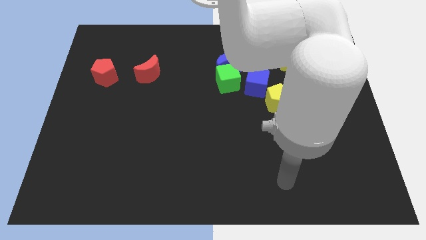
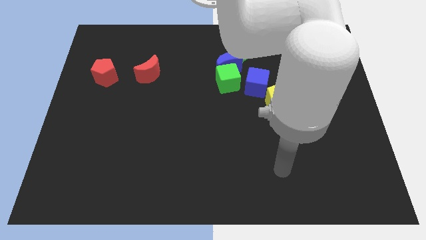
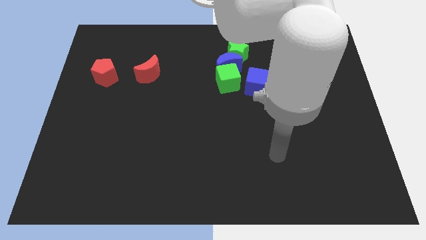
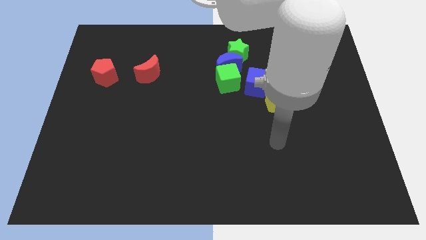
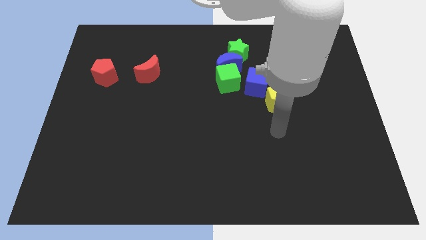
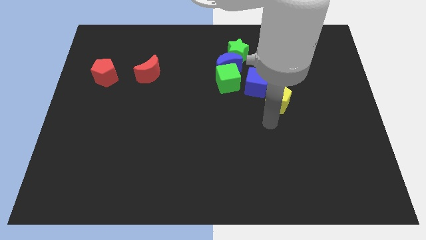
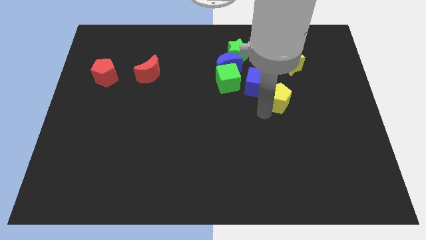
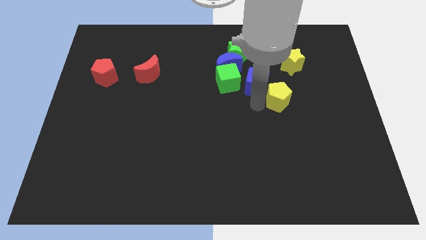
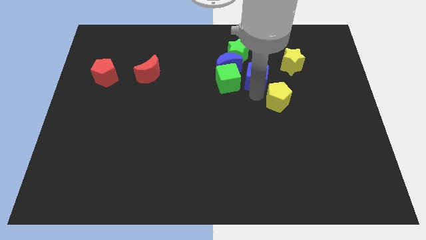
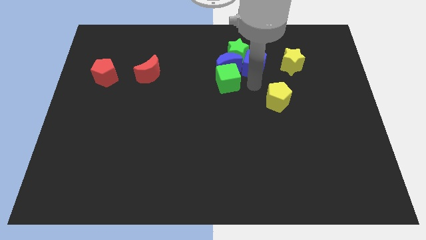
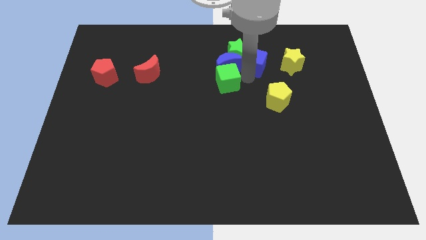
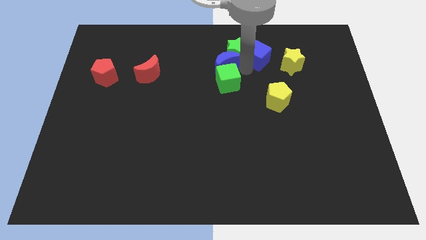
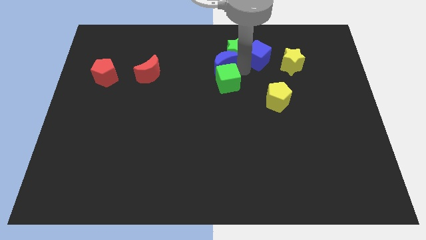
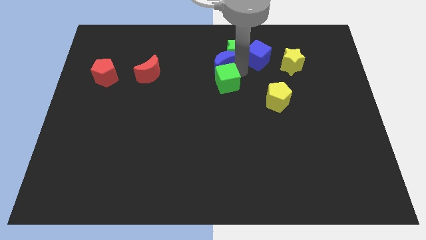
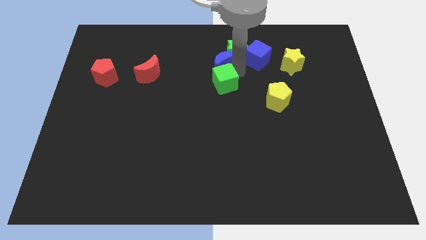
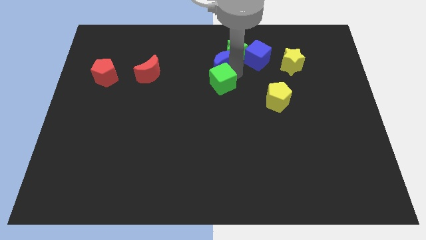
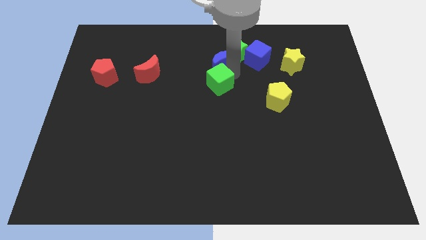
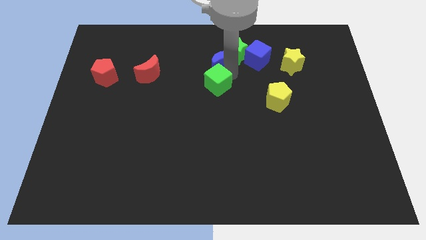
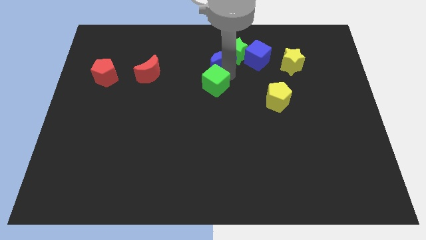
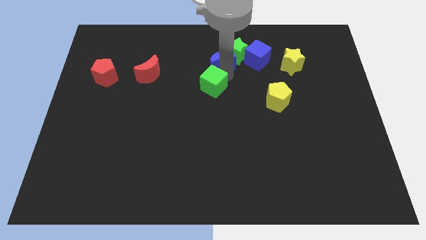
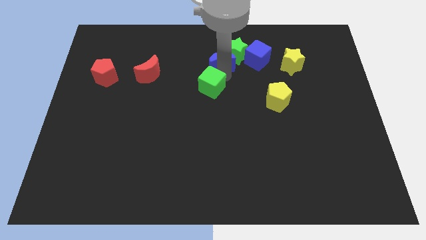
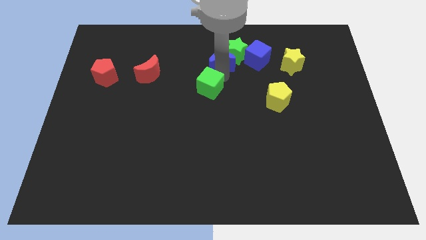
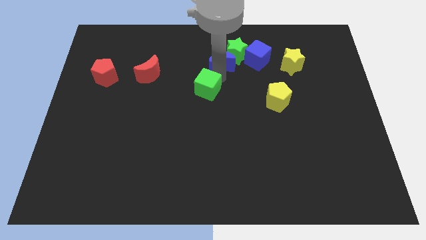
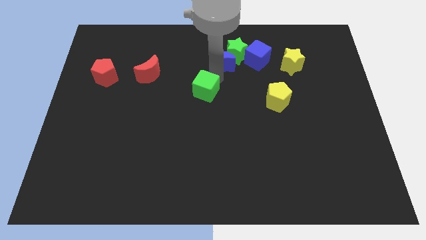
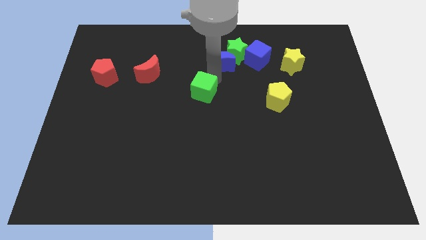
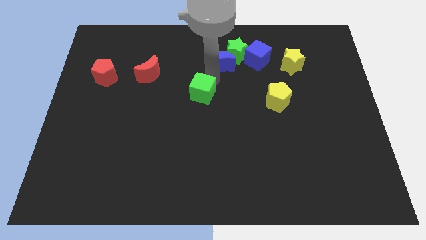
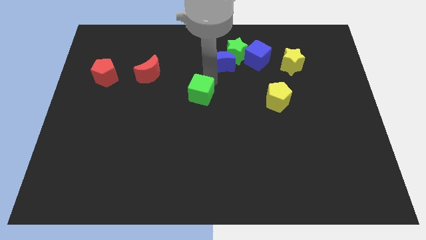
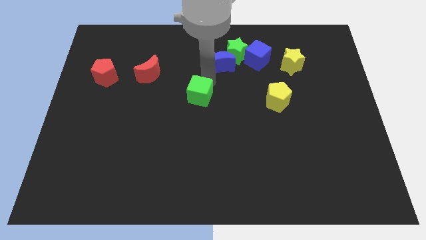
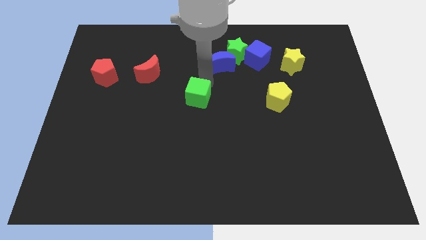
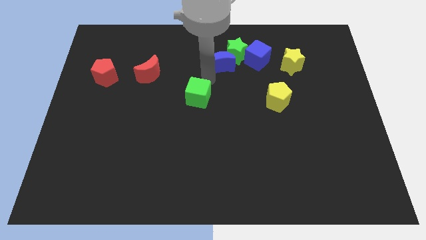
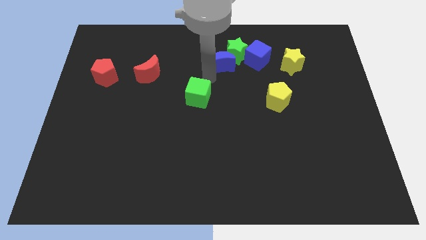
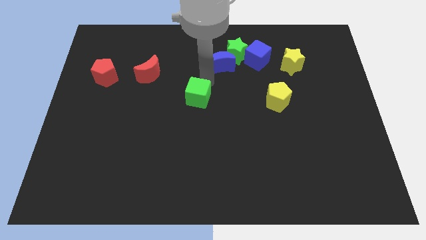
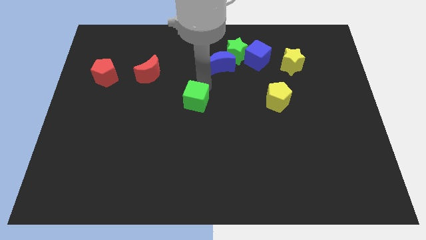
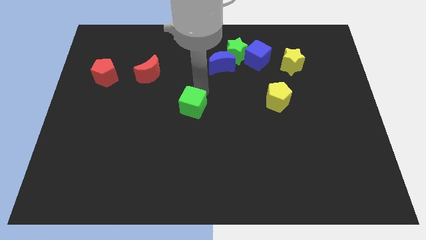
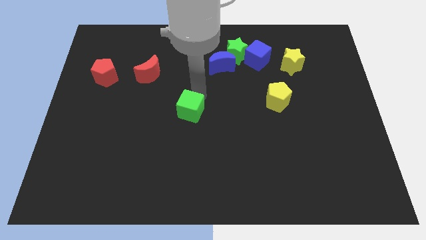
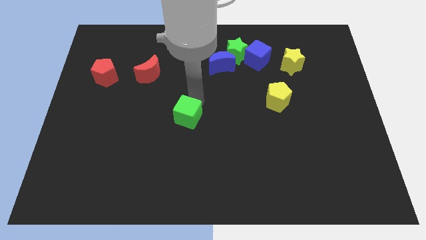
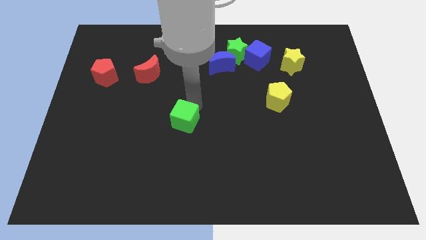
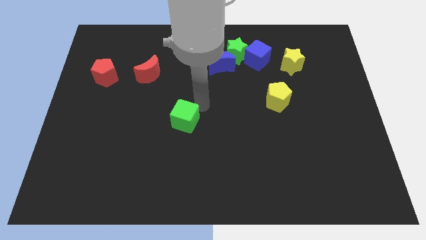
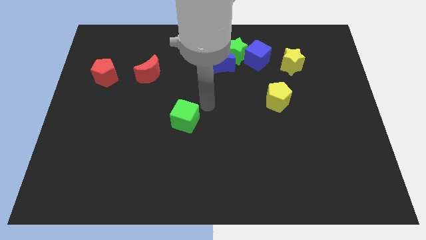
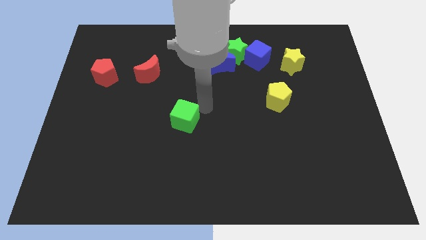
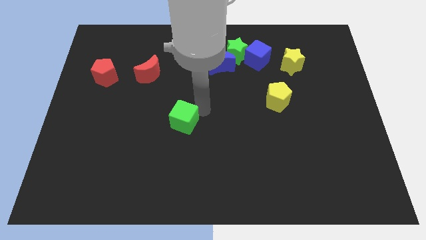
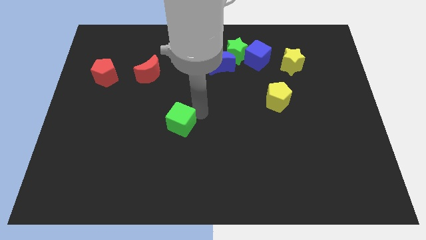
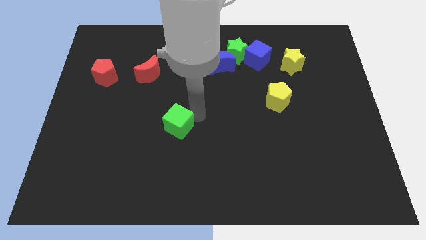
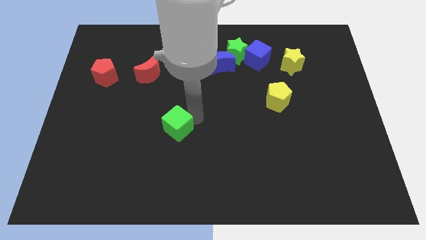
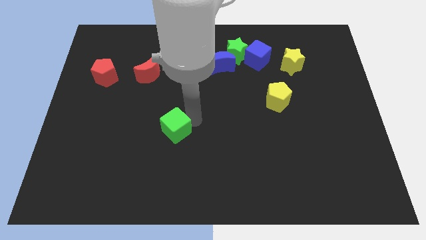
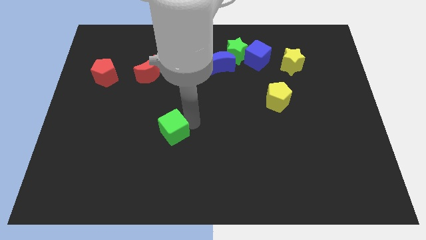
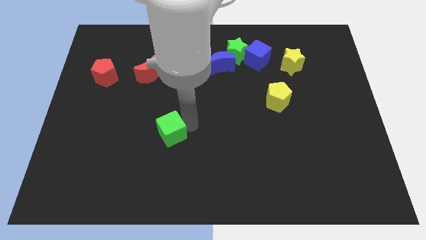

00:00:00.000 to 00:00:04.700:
push the green cube downwards and to the left diagonally

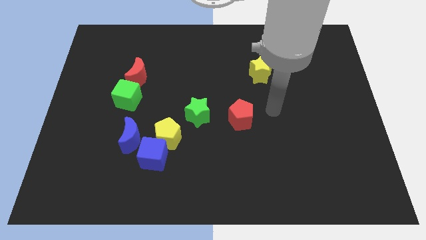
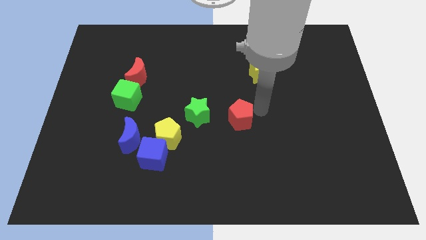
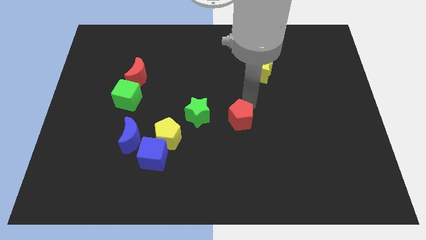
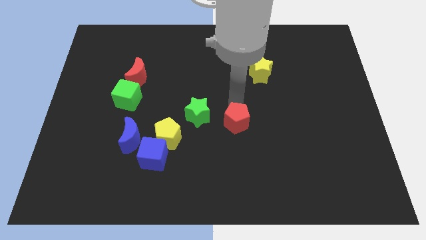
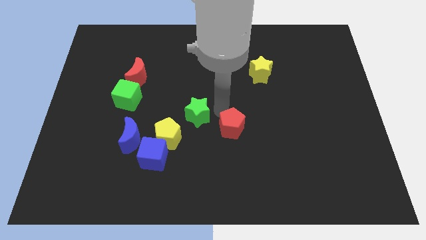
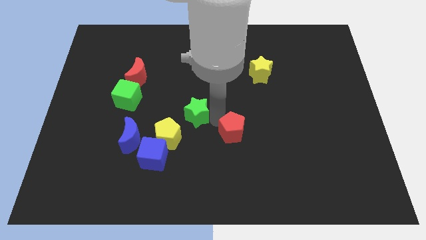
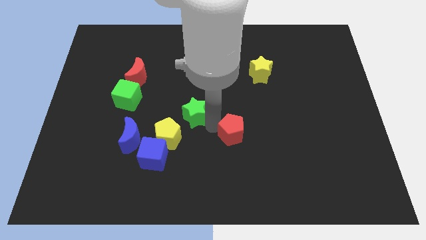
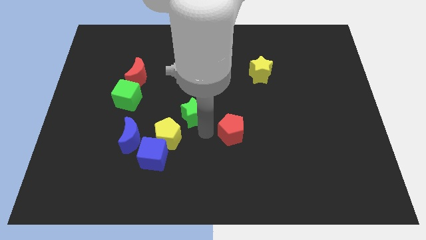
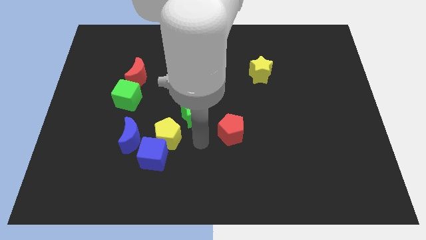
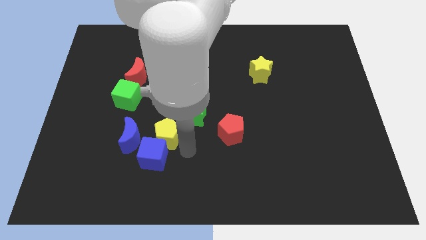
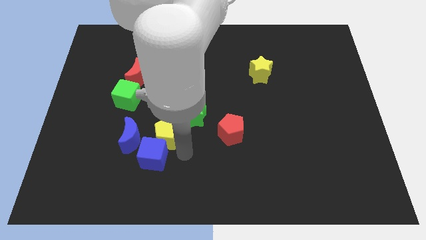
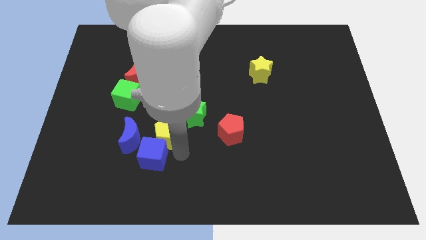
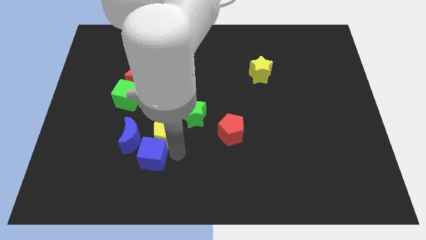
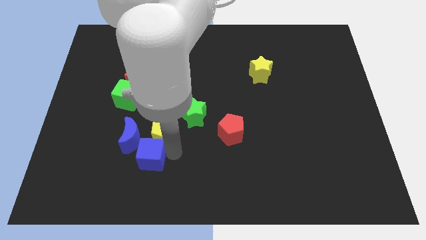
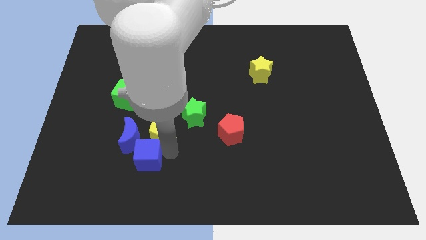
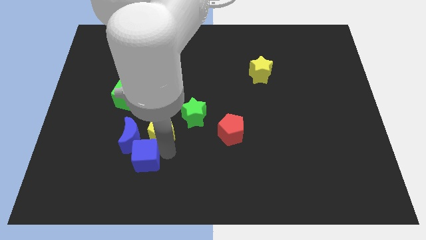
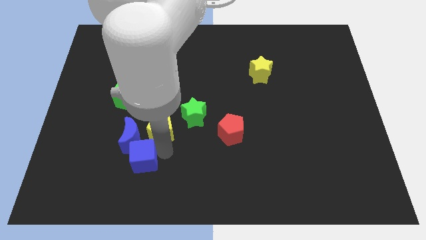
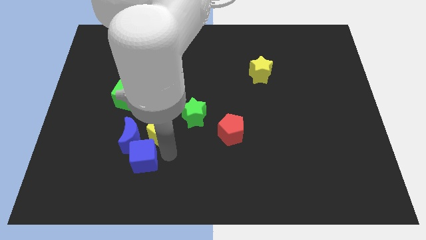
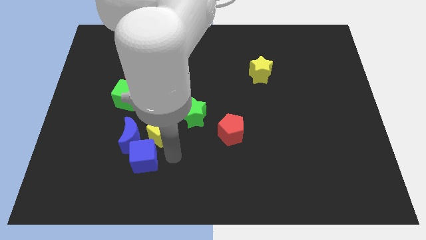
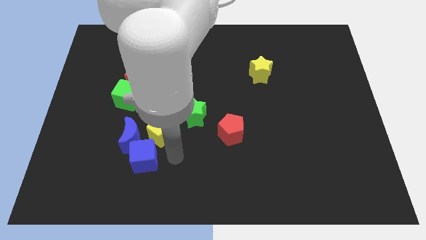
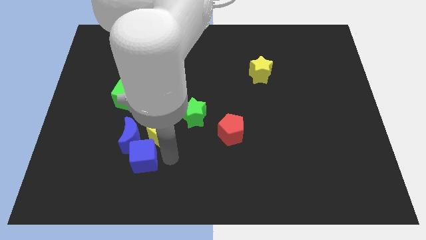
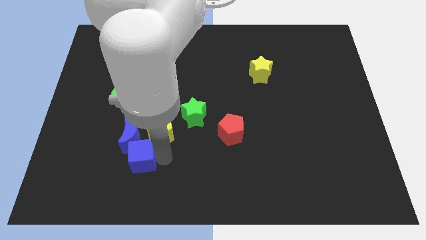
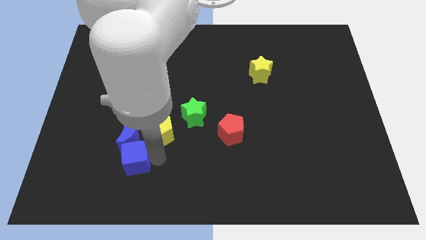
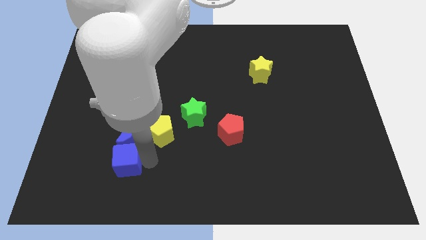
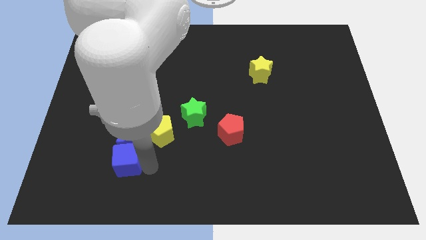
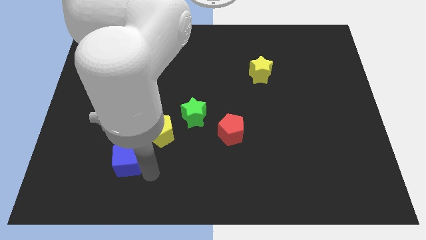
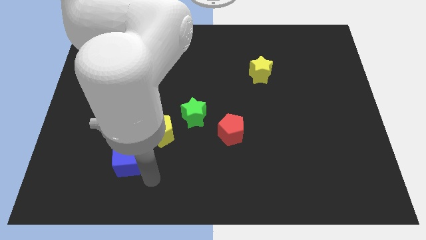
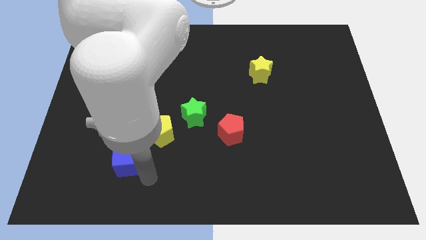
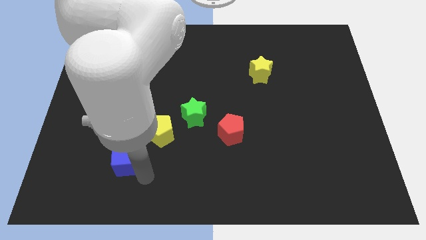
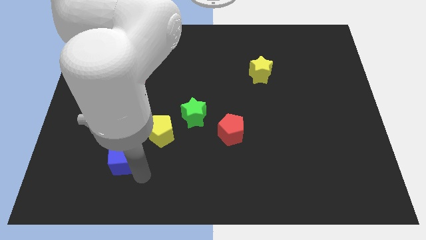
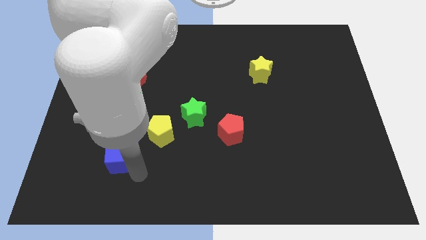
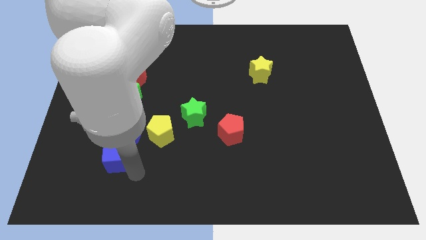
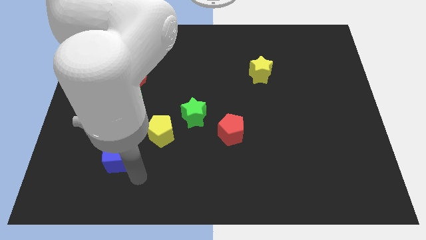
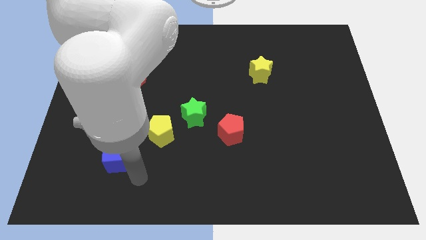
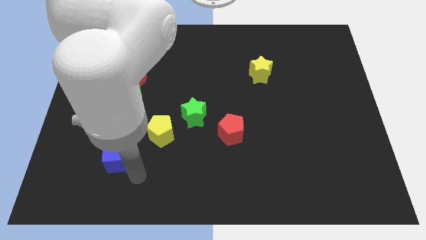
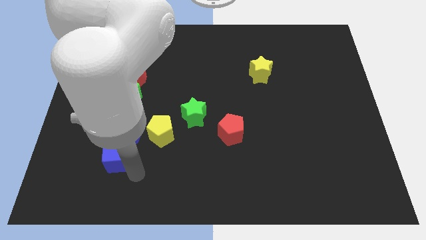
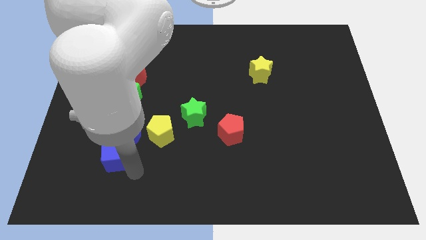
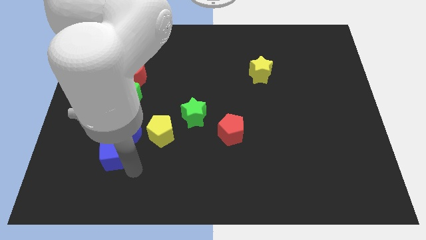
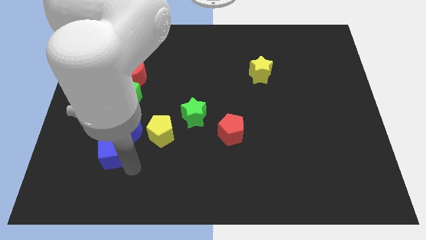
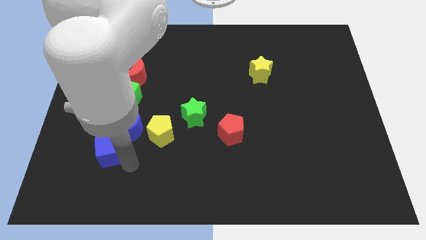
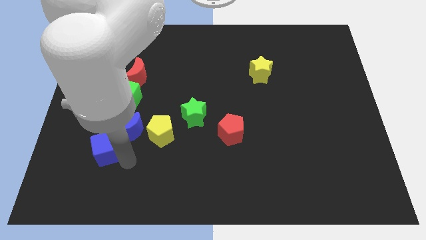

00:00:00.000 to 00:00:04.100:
slide the blue cube a little bit upwards and then to the left
